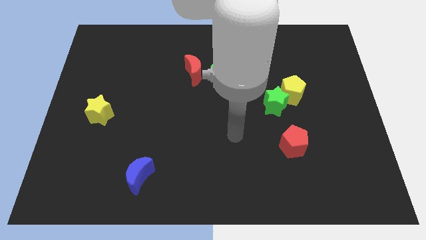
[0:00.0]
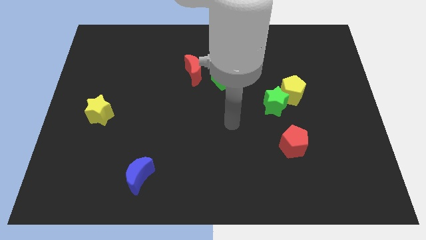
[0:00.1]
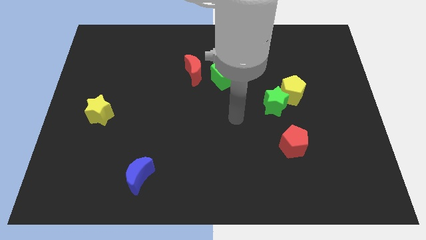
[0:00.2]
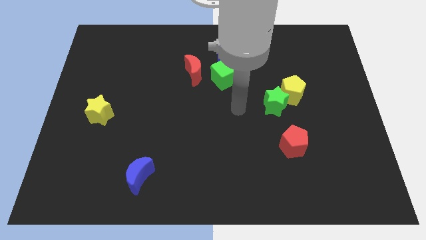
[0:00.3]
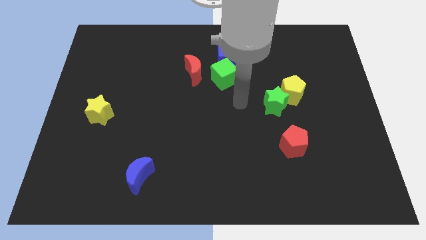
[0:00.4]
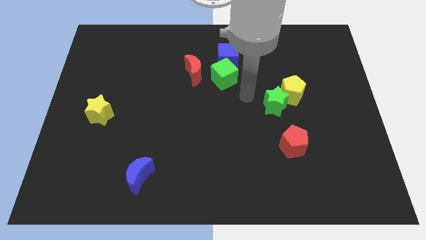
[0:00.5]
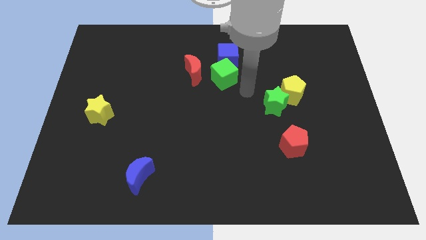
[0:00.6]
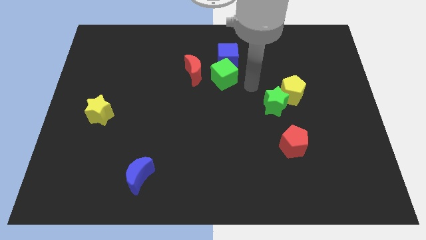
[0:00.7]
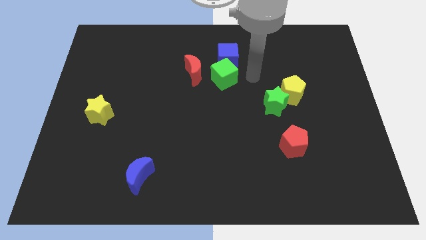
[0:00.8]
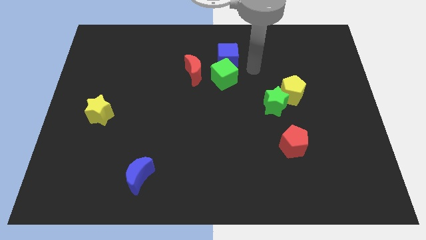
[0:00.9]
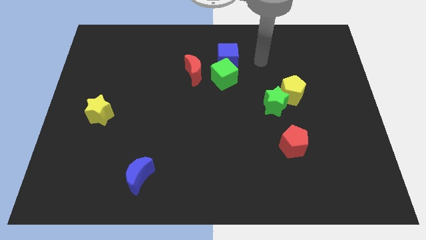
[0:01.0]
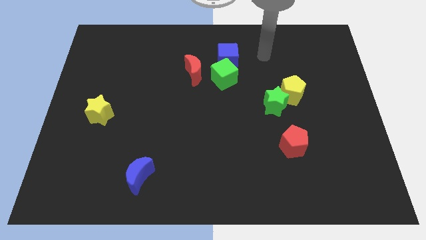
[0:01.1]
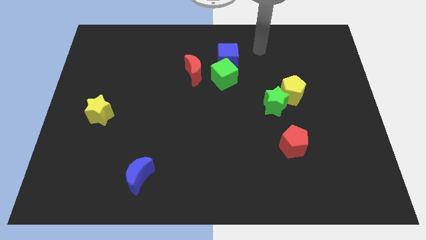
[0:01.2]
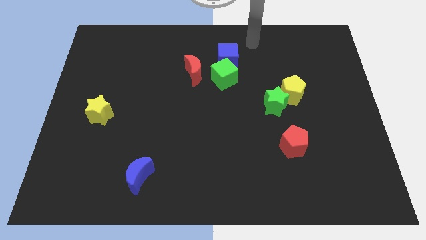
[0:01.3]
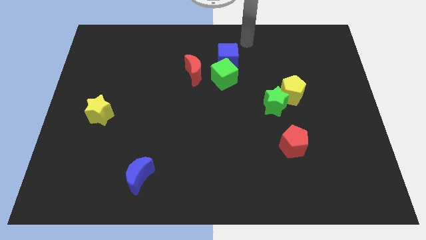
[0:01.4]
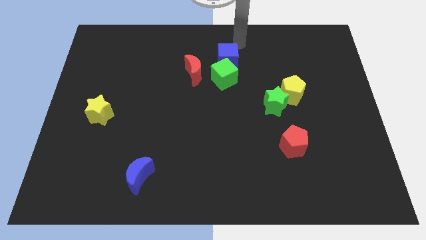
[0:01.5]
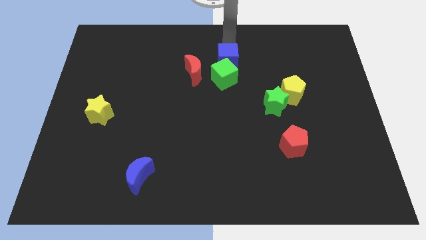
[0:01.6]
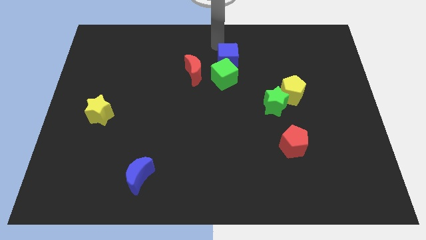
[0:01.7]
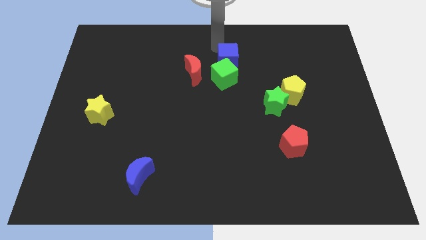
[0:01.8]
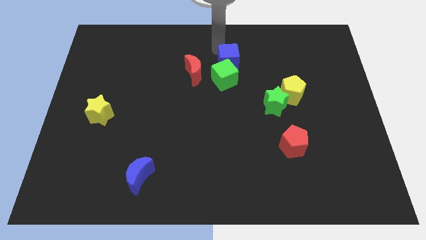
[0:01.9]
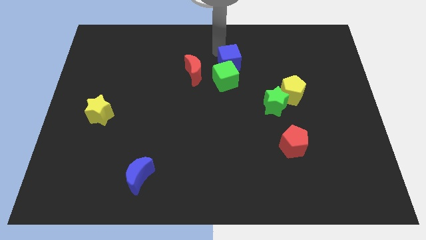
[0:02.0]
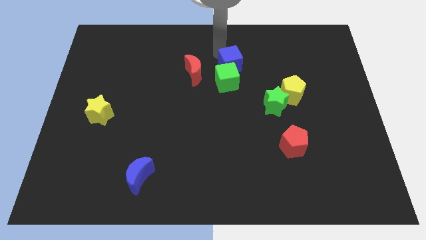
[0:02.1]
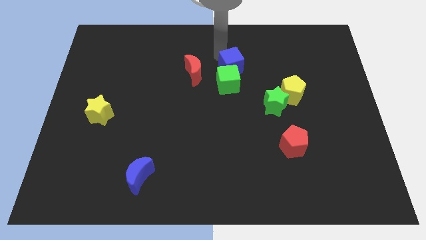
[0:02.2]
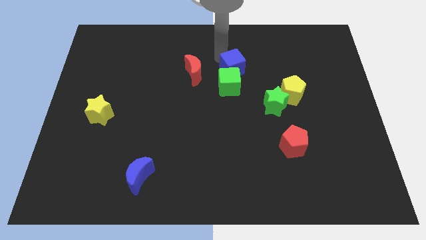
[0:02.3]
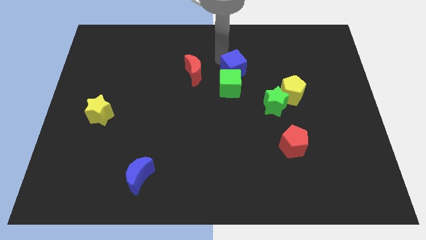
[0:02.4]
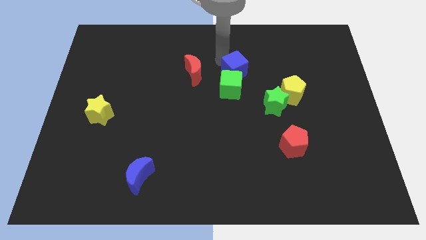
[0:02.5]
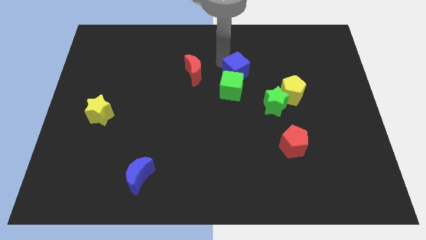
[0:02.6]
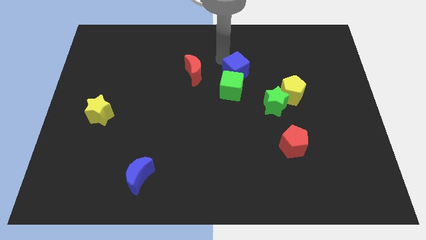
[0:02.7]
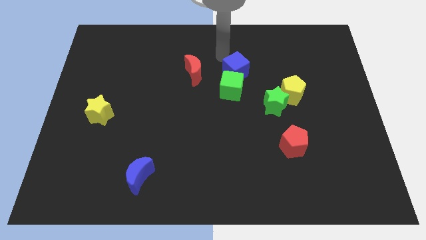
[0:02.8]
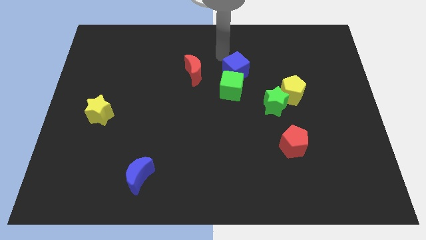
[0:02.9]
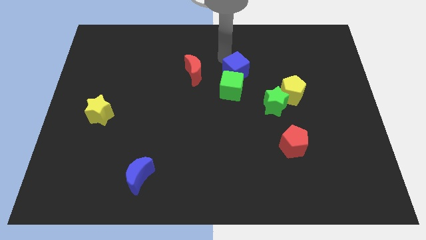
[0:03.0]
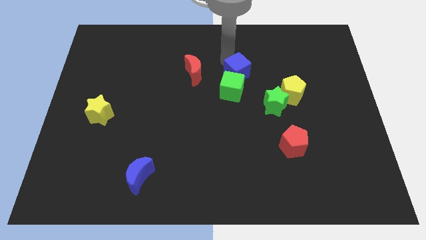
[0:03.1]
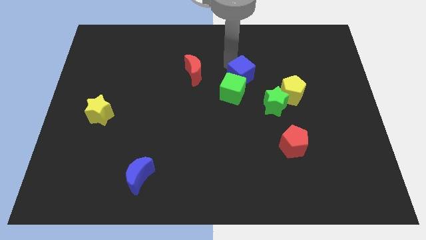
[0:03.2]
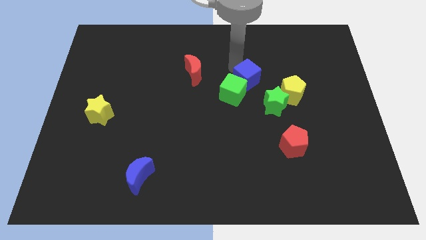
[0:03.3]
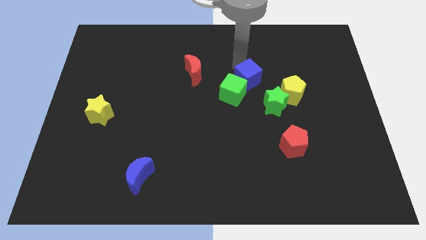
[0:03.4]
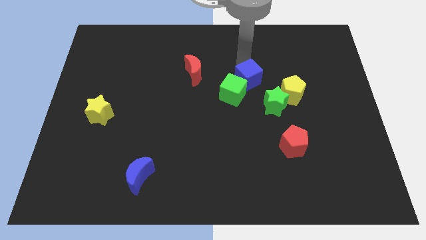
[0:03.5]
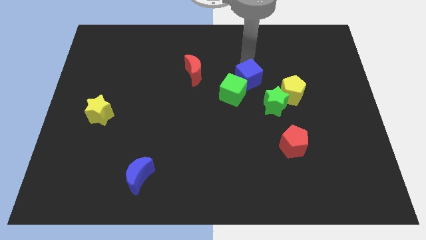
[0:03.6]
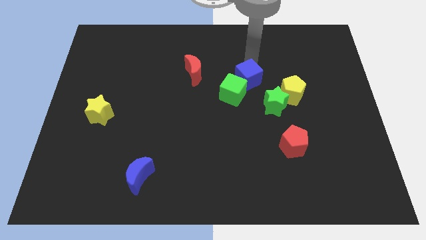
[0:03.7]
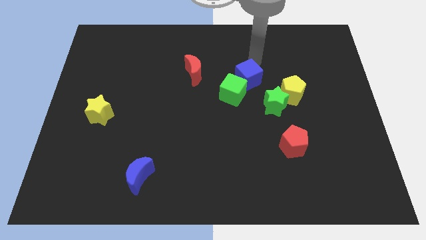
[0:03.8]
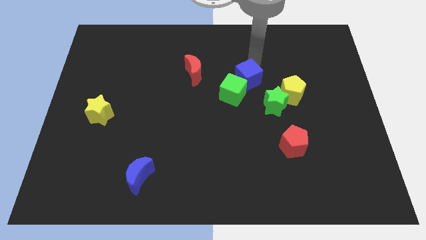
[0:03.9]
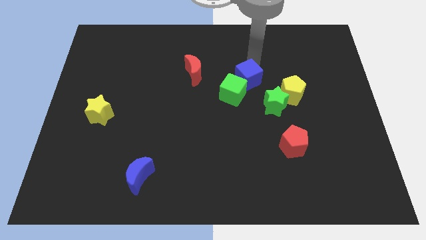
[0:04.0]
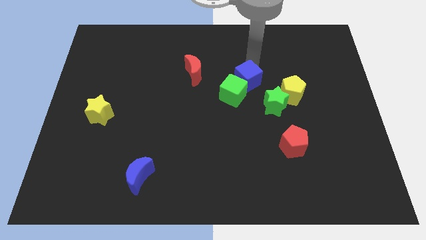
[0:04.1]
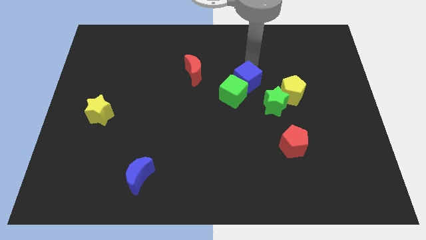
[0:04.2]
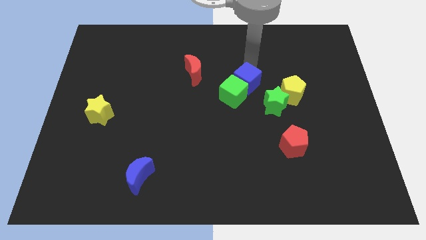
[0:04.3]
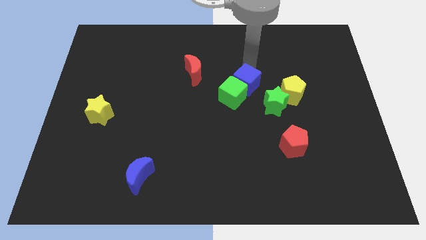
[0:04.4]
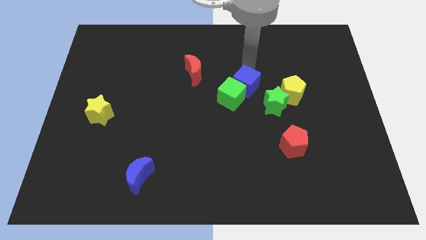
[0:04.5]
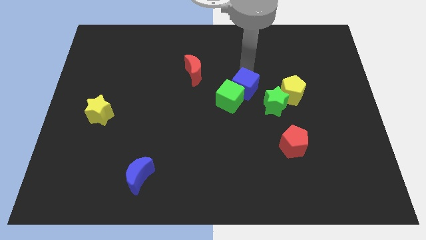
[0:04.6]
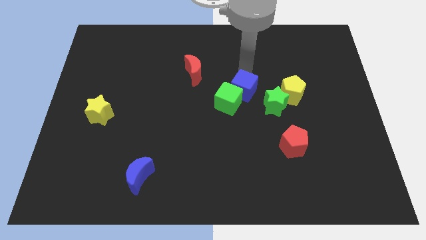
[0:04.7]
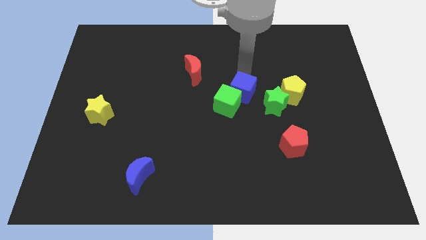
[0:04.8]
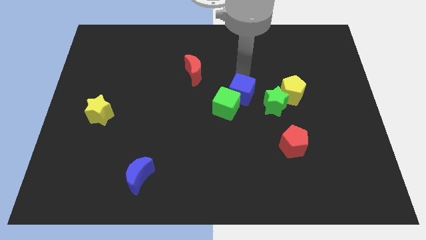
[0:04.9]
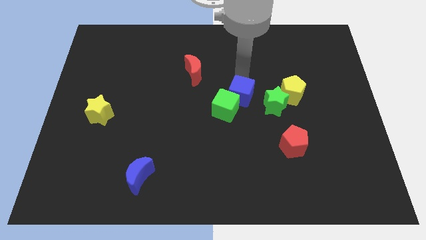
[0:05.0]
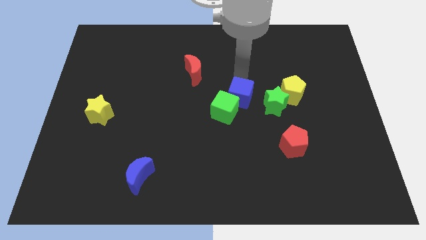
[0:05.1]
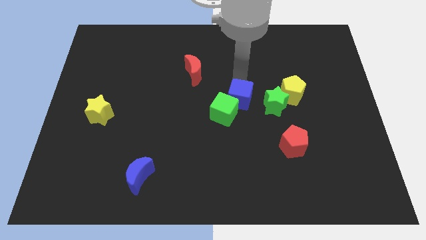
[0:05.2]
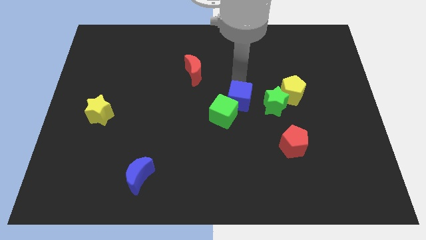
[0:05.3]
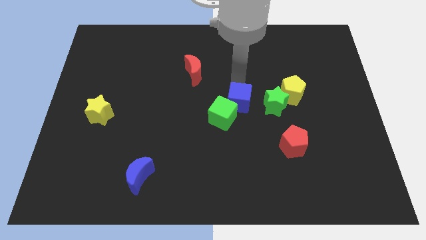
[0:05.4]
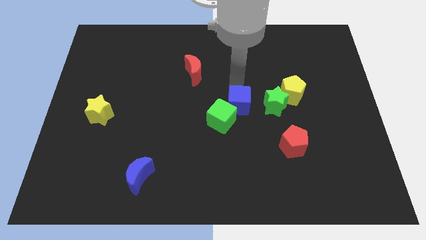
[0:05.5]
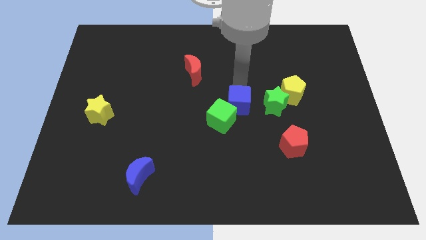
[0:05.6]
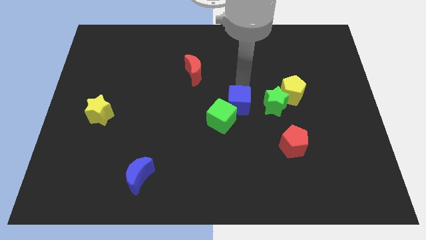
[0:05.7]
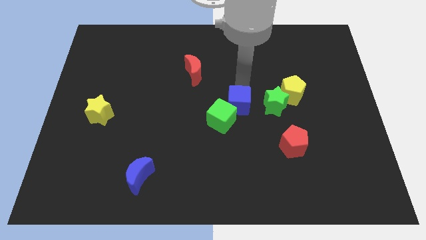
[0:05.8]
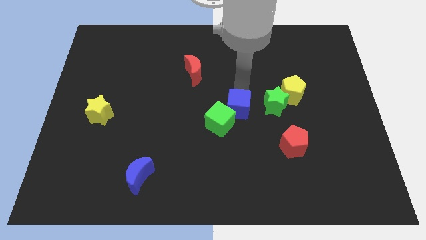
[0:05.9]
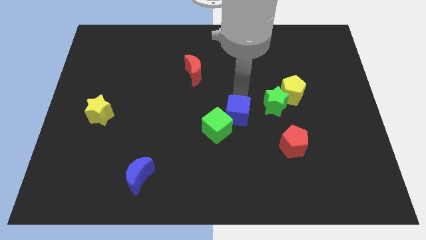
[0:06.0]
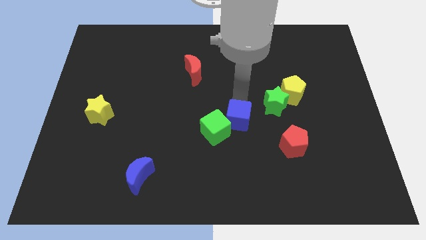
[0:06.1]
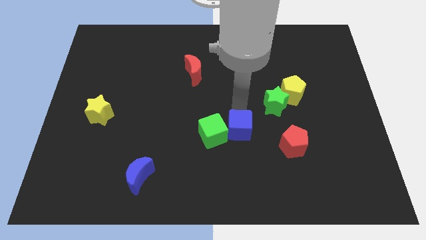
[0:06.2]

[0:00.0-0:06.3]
push the blue cube downwards

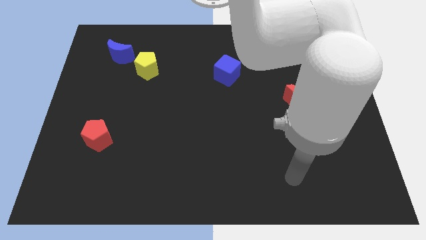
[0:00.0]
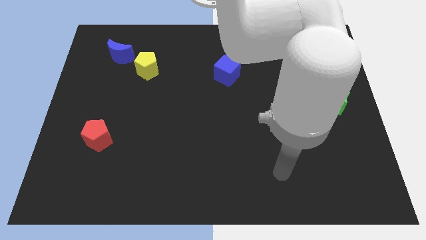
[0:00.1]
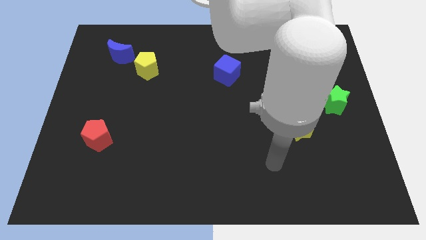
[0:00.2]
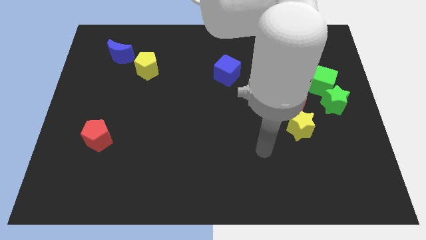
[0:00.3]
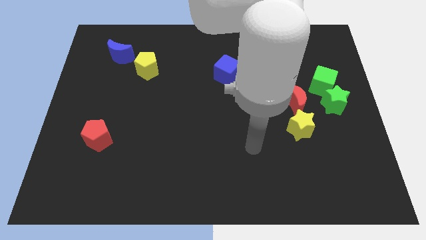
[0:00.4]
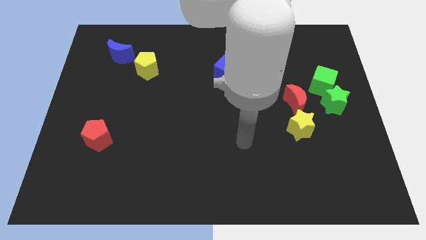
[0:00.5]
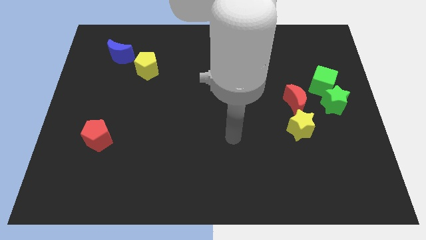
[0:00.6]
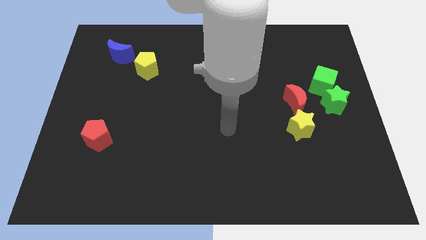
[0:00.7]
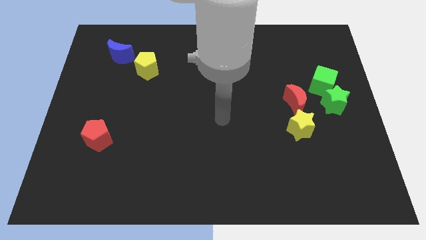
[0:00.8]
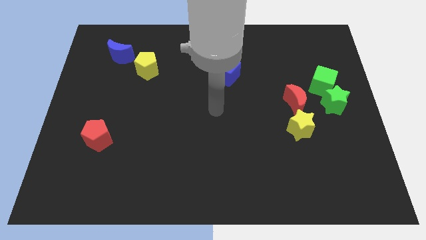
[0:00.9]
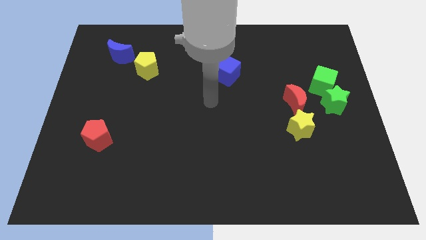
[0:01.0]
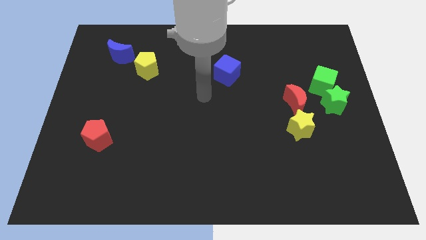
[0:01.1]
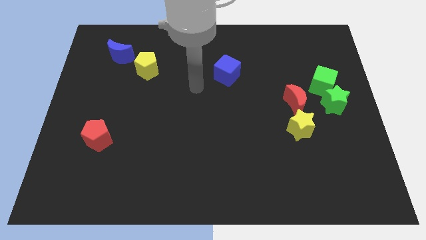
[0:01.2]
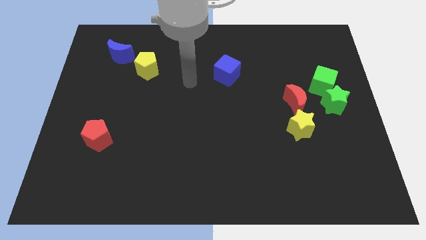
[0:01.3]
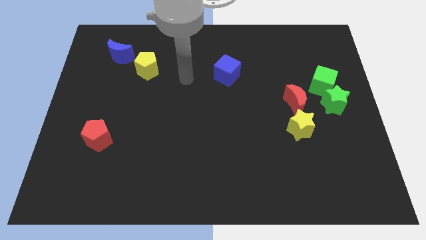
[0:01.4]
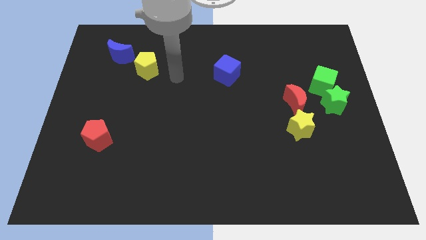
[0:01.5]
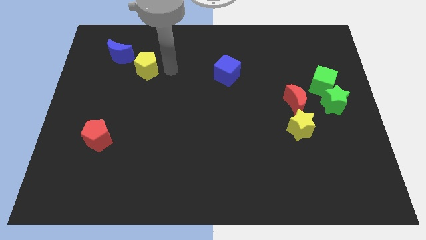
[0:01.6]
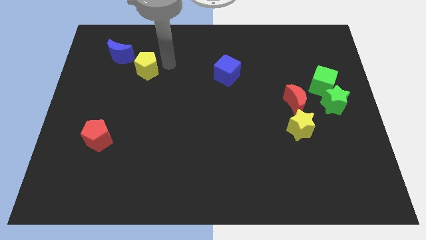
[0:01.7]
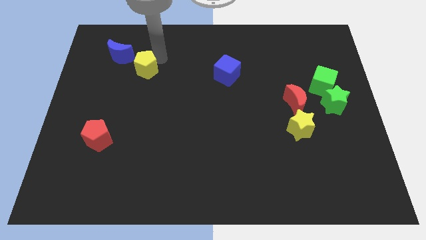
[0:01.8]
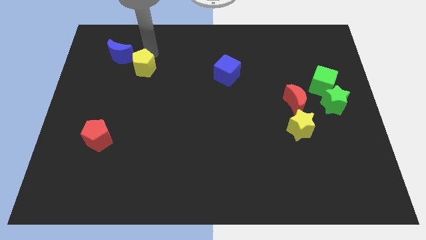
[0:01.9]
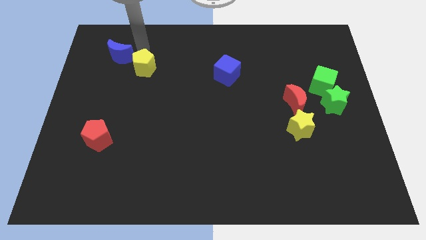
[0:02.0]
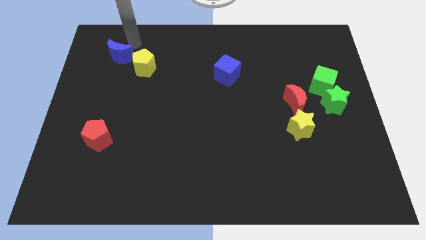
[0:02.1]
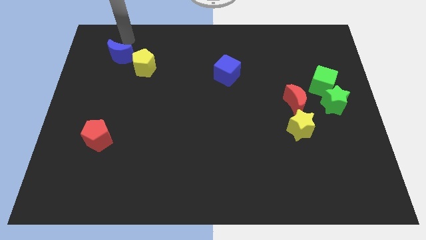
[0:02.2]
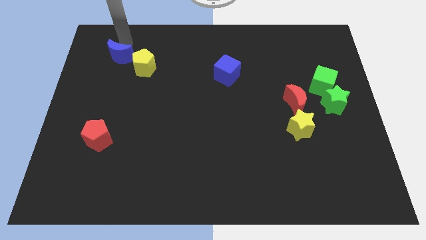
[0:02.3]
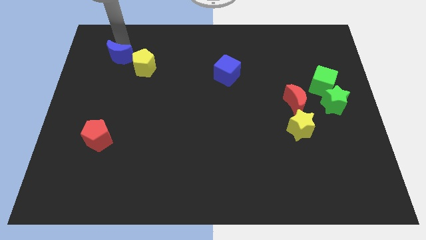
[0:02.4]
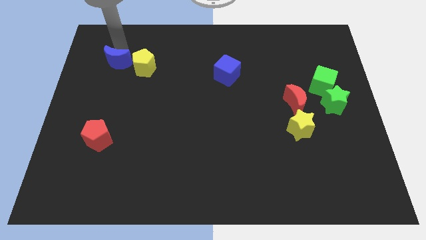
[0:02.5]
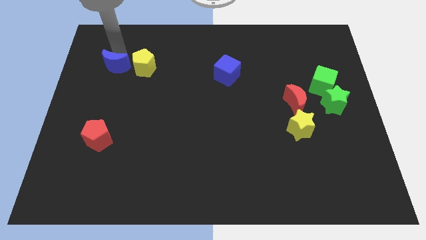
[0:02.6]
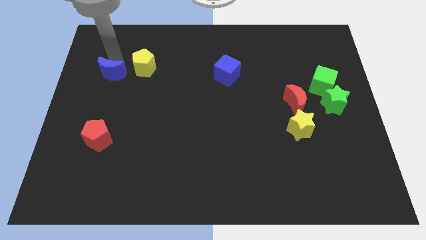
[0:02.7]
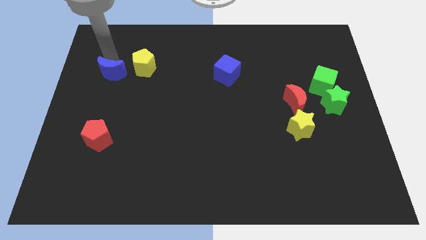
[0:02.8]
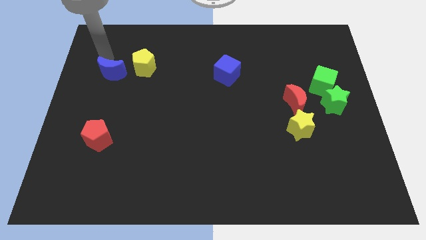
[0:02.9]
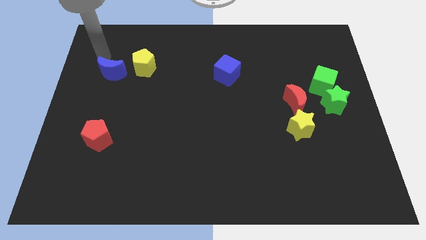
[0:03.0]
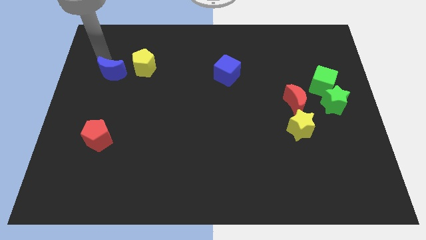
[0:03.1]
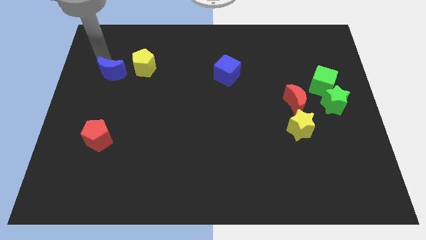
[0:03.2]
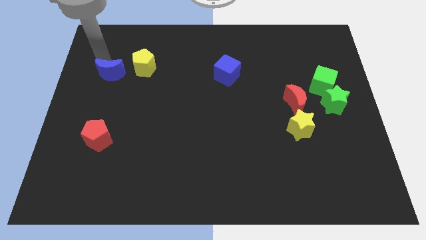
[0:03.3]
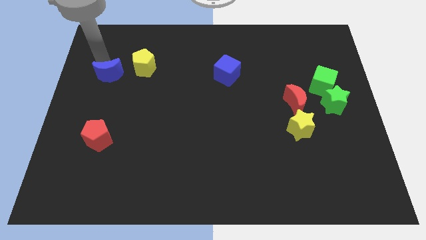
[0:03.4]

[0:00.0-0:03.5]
push the blue moon downwards a bit
